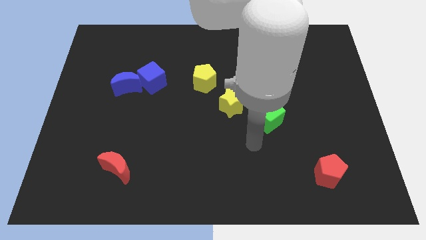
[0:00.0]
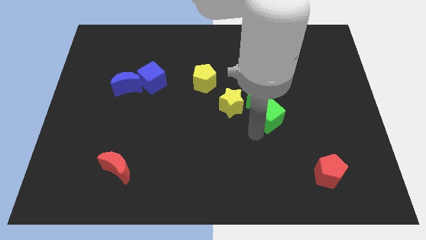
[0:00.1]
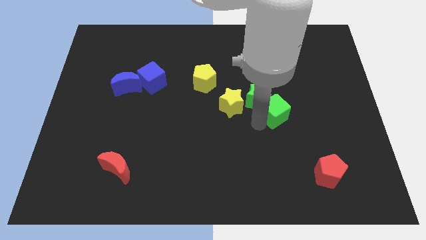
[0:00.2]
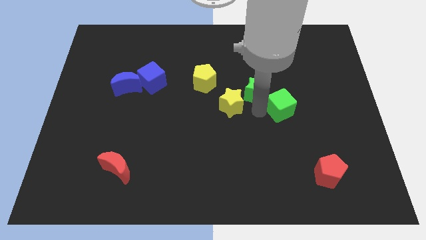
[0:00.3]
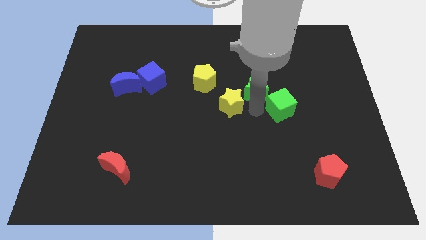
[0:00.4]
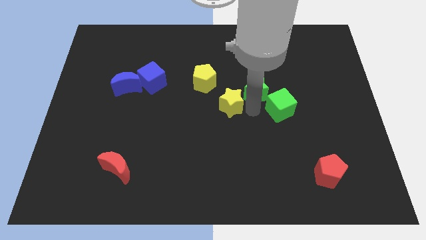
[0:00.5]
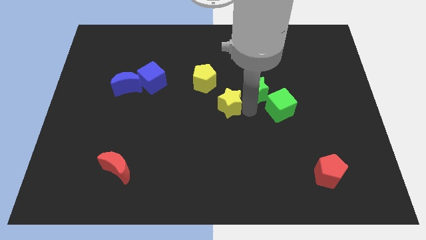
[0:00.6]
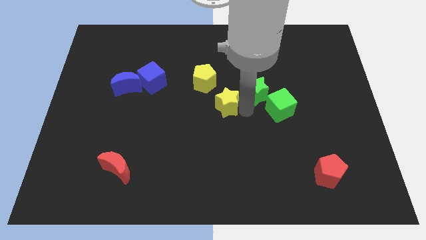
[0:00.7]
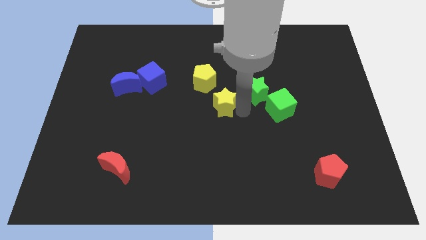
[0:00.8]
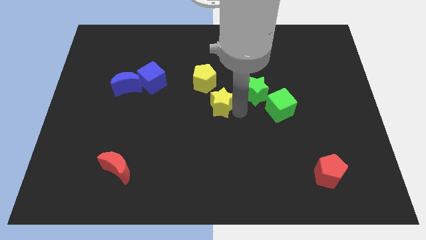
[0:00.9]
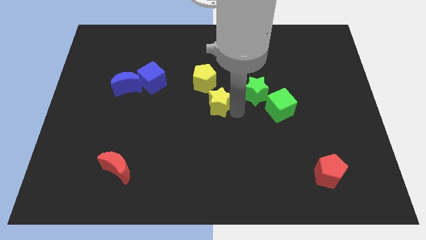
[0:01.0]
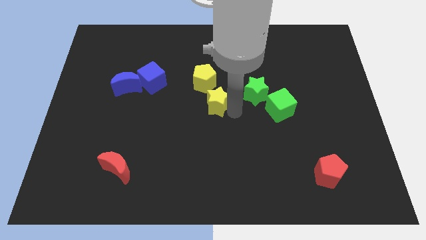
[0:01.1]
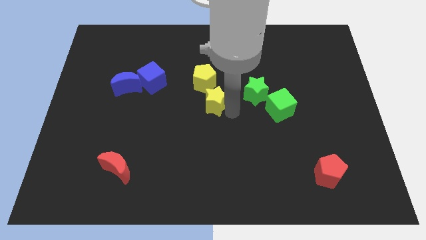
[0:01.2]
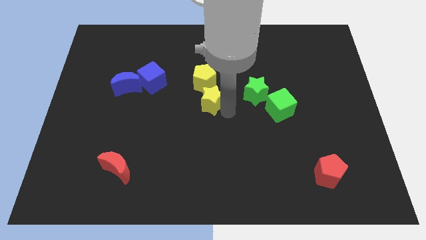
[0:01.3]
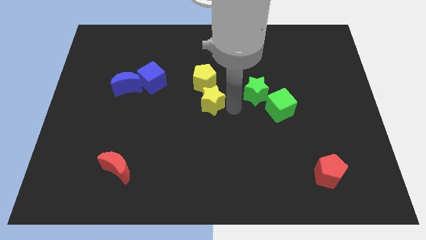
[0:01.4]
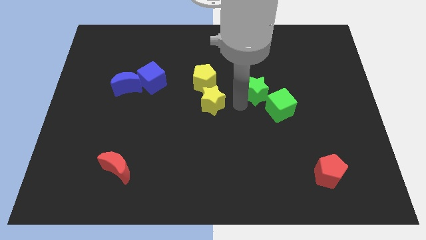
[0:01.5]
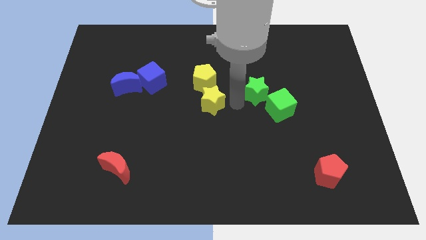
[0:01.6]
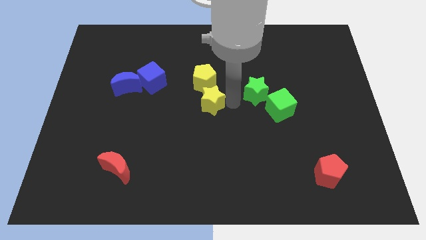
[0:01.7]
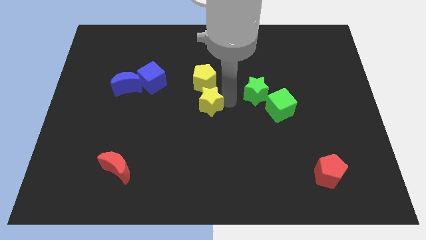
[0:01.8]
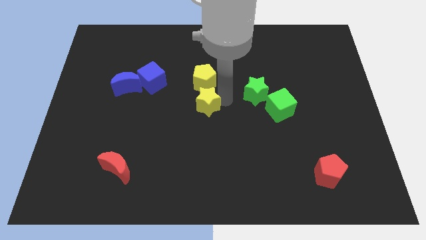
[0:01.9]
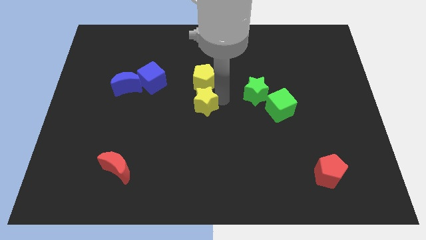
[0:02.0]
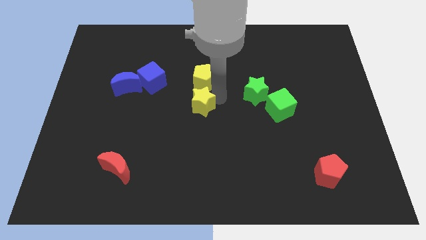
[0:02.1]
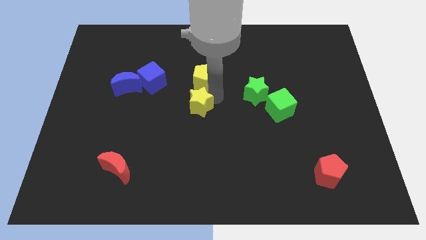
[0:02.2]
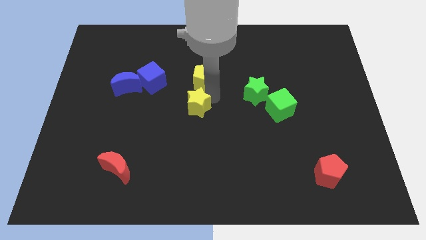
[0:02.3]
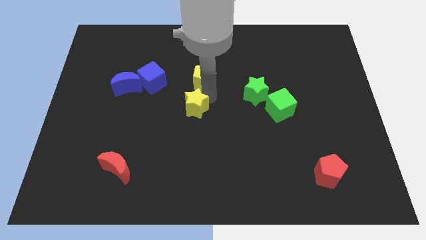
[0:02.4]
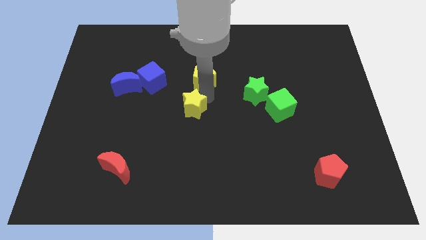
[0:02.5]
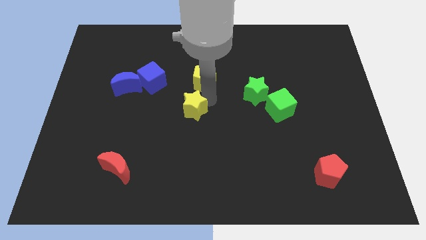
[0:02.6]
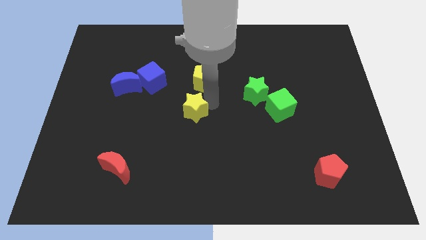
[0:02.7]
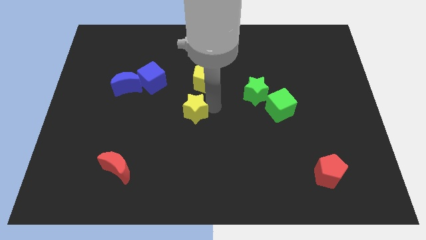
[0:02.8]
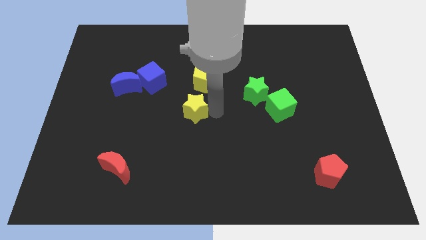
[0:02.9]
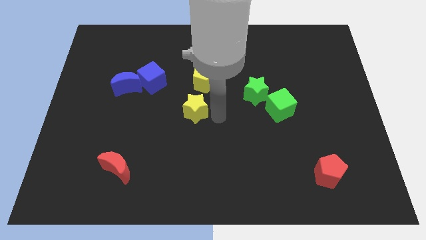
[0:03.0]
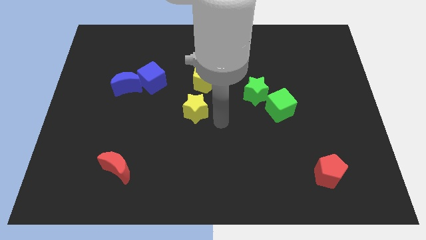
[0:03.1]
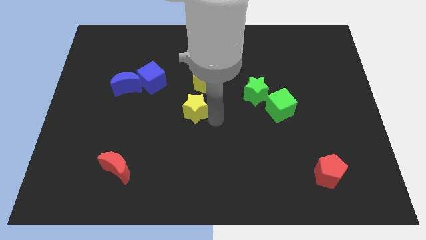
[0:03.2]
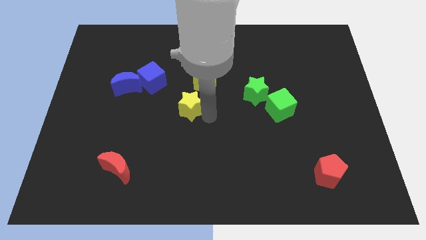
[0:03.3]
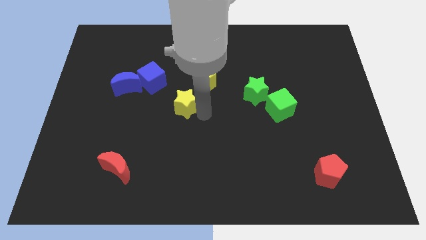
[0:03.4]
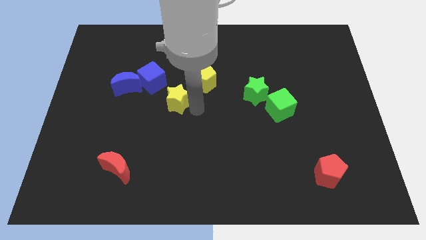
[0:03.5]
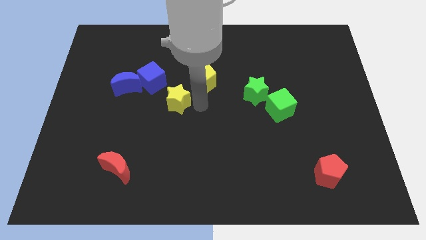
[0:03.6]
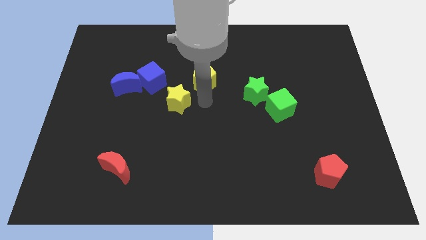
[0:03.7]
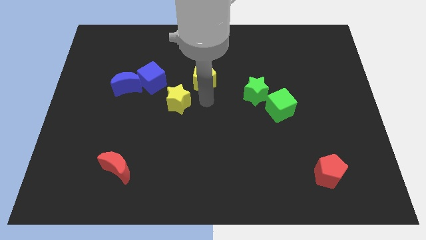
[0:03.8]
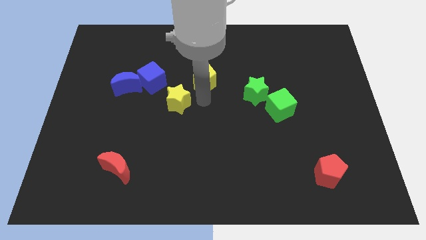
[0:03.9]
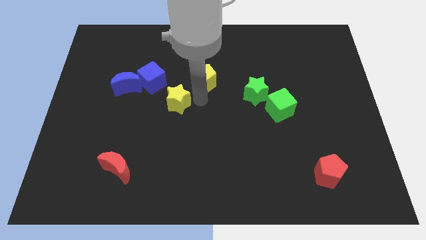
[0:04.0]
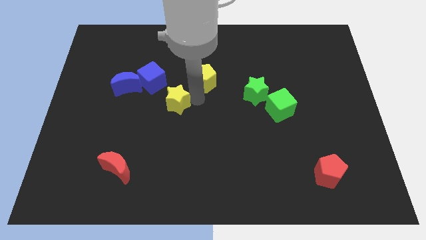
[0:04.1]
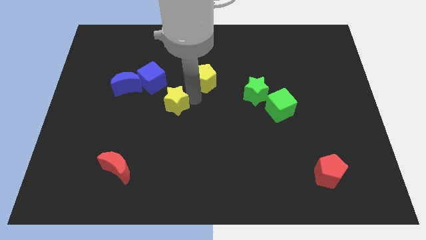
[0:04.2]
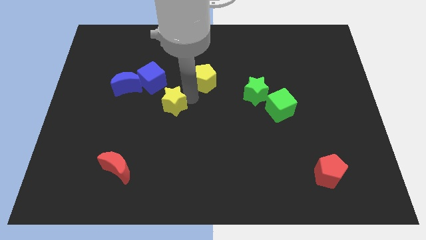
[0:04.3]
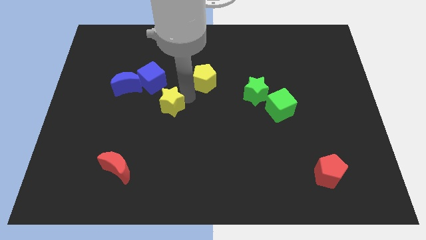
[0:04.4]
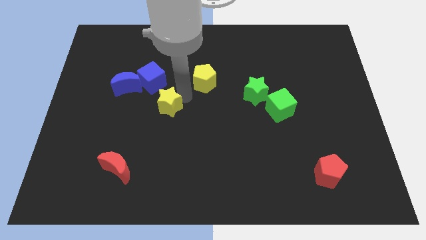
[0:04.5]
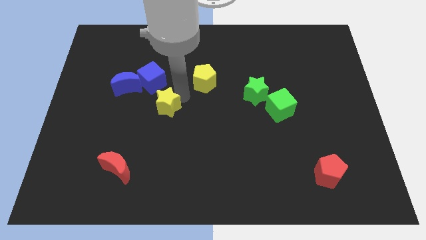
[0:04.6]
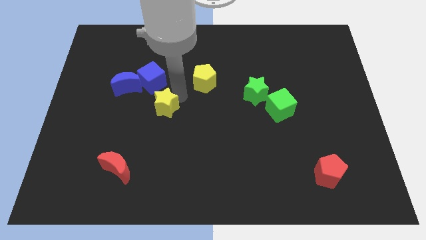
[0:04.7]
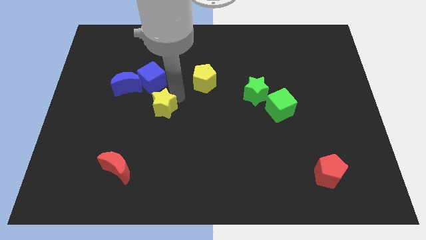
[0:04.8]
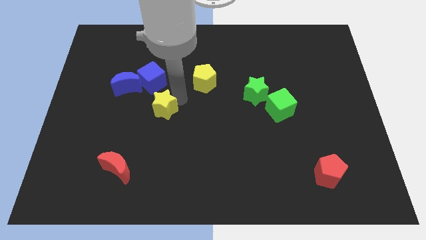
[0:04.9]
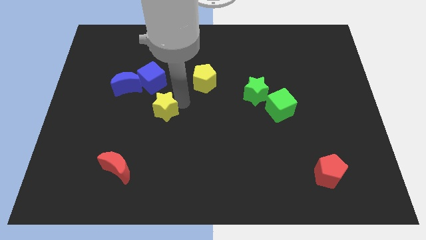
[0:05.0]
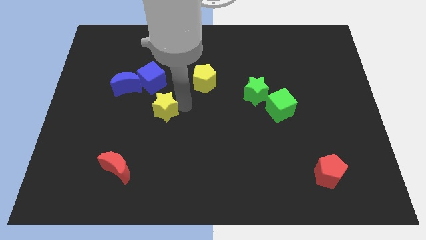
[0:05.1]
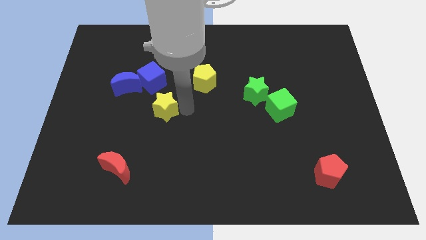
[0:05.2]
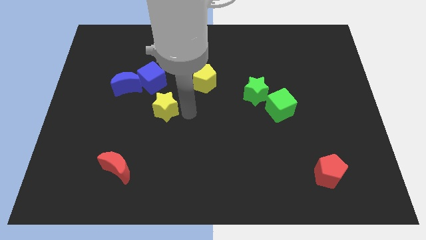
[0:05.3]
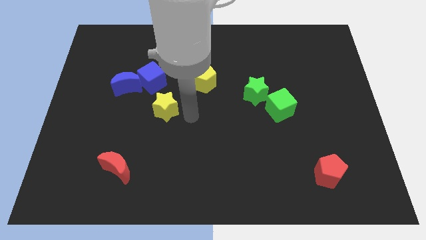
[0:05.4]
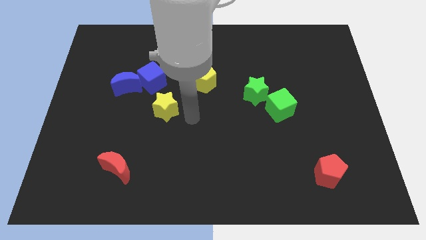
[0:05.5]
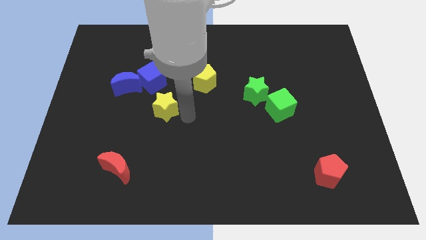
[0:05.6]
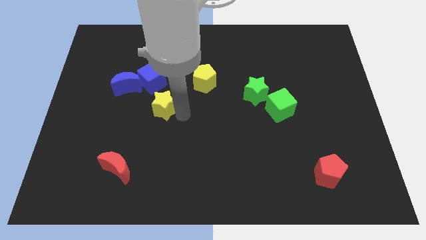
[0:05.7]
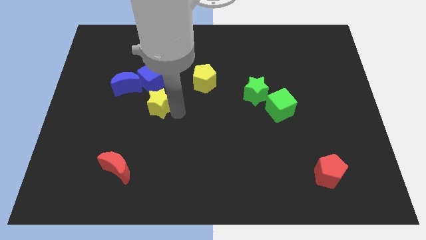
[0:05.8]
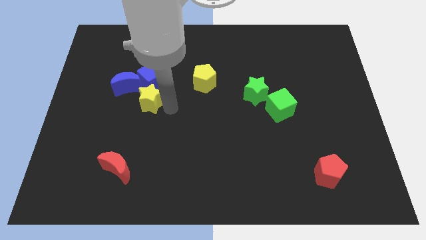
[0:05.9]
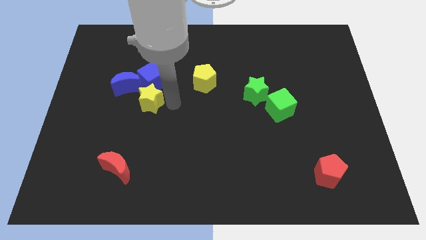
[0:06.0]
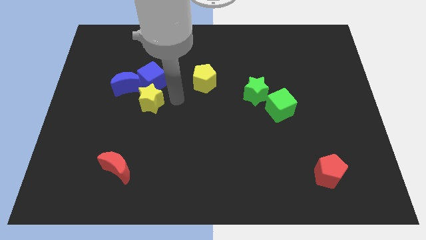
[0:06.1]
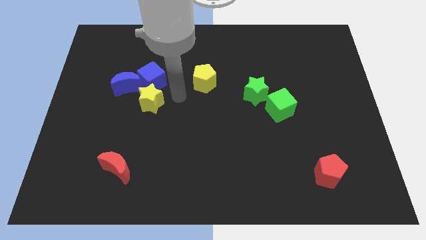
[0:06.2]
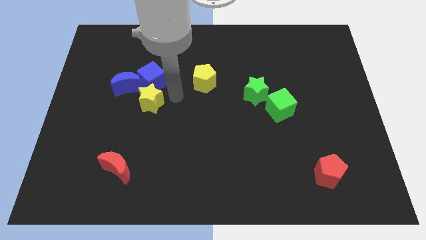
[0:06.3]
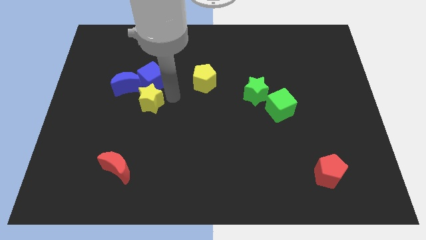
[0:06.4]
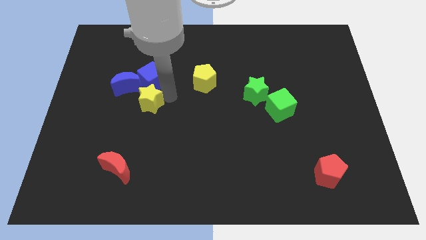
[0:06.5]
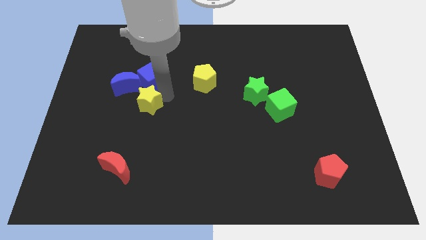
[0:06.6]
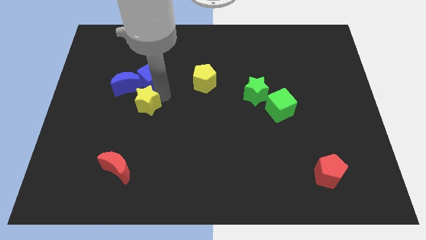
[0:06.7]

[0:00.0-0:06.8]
push the yellow star left

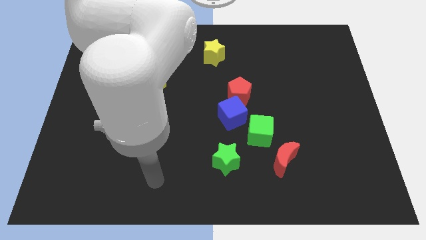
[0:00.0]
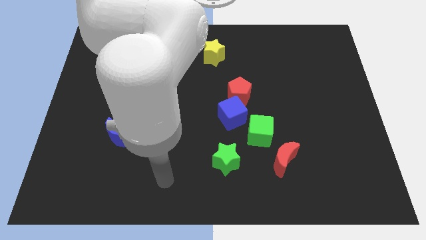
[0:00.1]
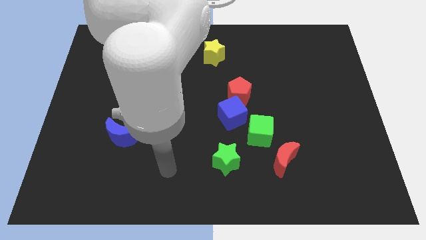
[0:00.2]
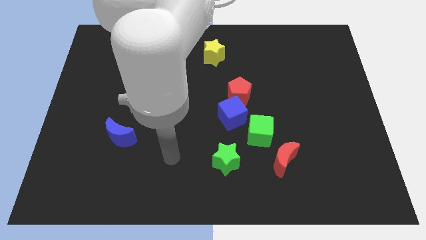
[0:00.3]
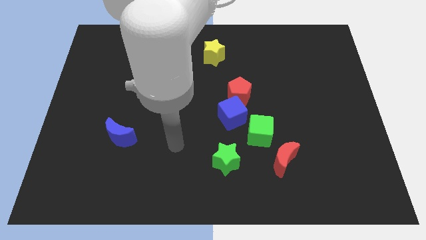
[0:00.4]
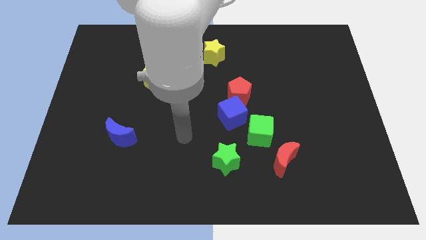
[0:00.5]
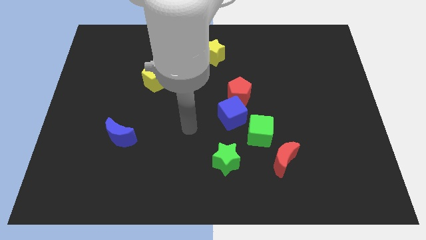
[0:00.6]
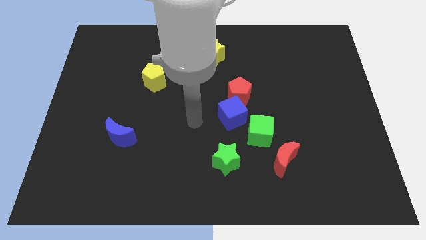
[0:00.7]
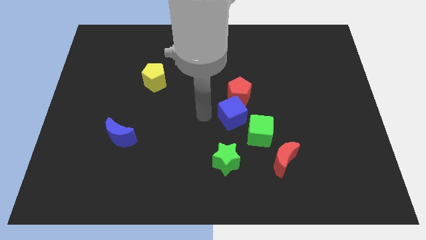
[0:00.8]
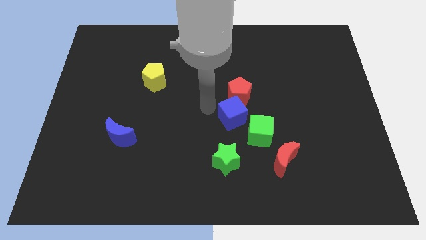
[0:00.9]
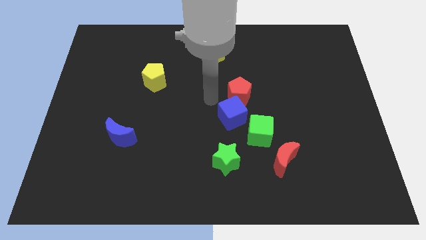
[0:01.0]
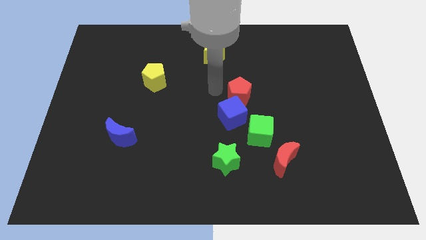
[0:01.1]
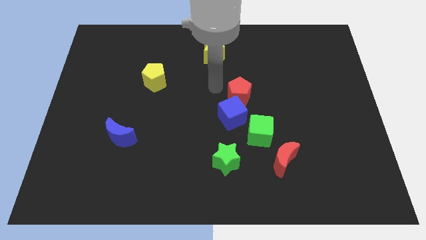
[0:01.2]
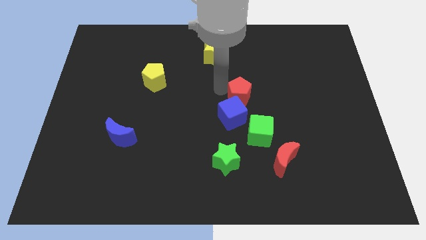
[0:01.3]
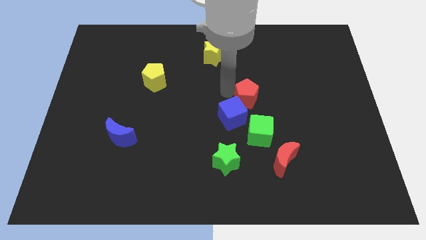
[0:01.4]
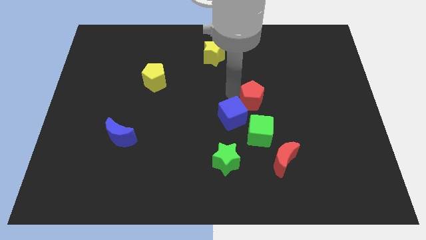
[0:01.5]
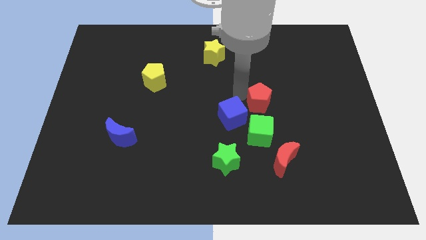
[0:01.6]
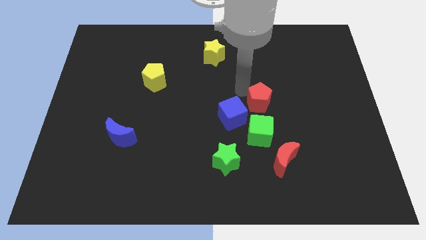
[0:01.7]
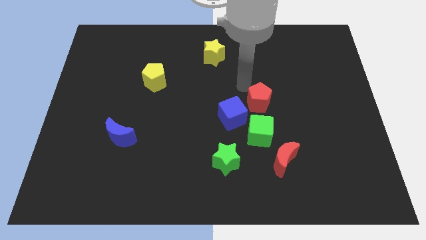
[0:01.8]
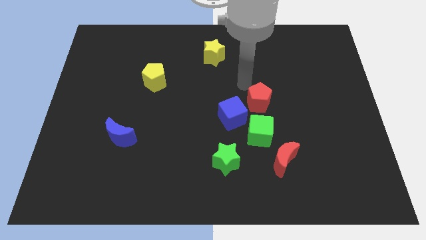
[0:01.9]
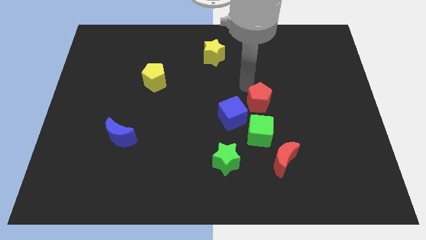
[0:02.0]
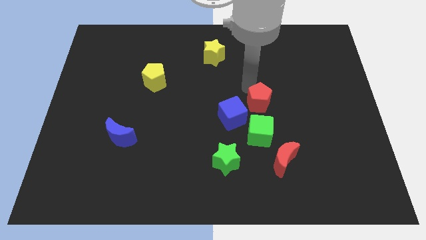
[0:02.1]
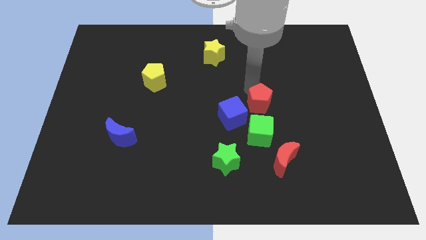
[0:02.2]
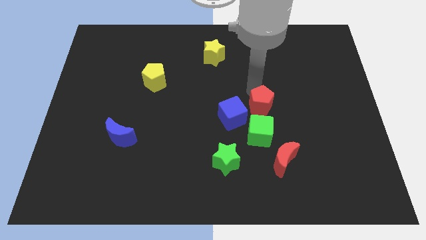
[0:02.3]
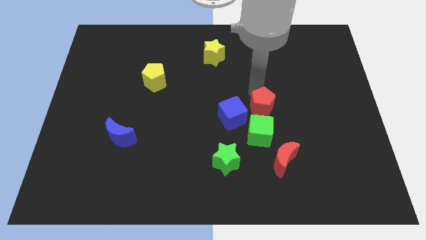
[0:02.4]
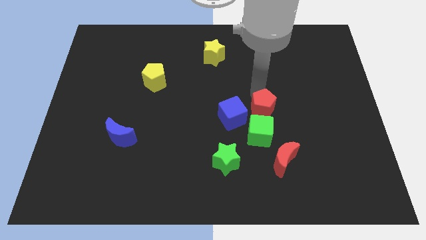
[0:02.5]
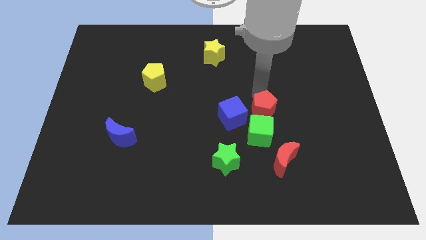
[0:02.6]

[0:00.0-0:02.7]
slide the red pentagon down and then to the right slightly
